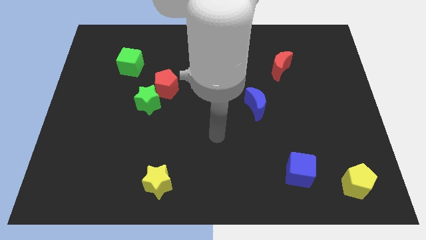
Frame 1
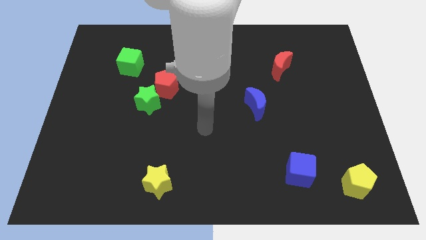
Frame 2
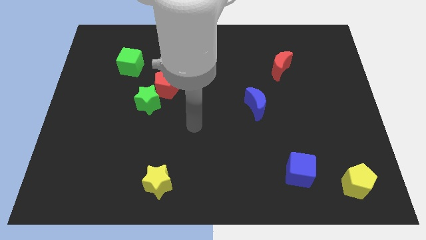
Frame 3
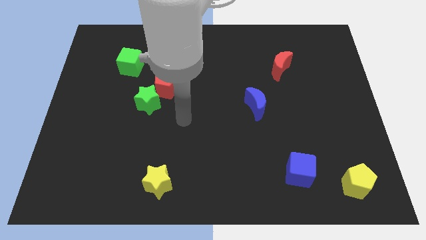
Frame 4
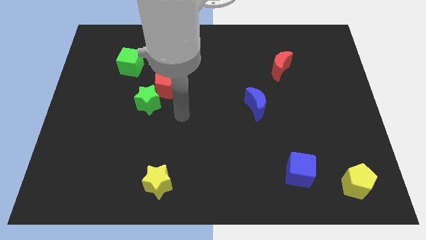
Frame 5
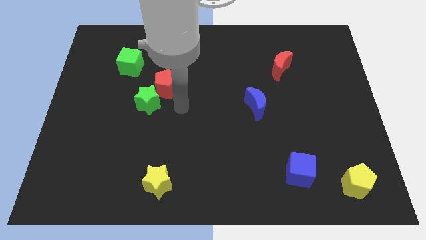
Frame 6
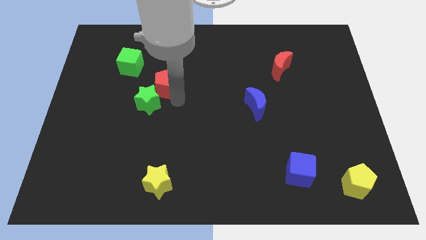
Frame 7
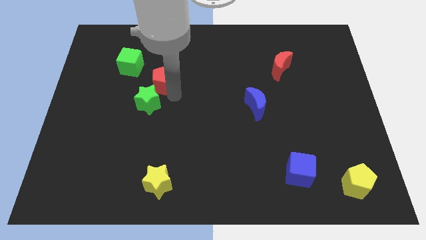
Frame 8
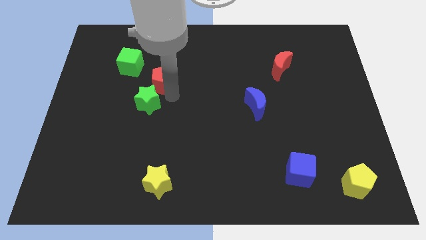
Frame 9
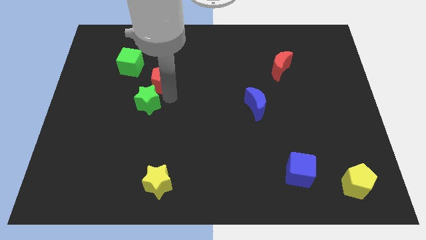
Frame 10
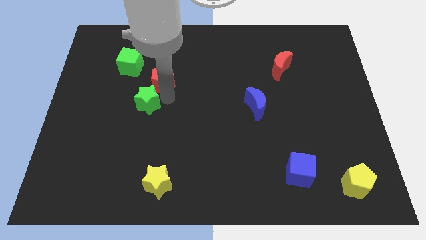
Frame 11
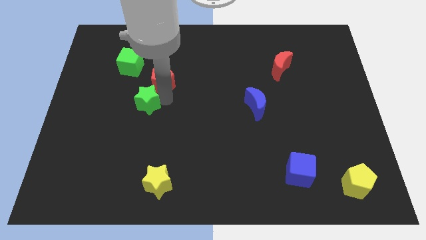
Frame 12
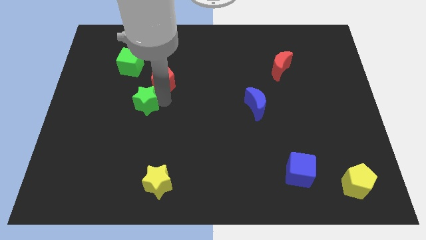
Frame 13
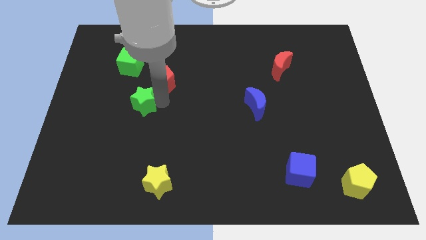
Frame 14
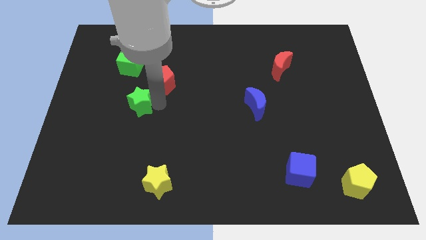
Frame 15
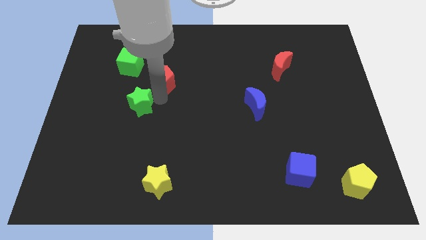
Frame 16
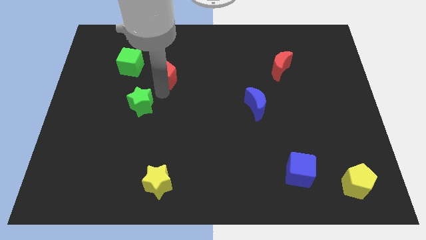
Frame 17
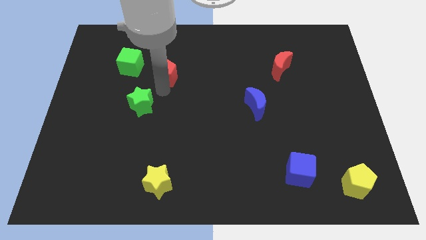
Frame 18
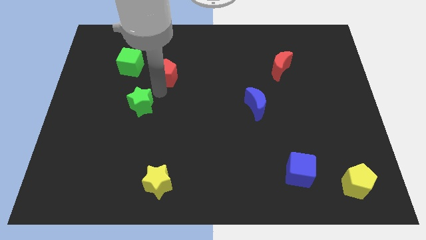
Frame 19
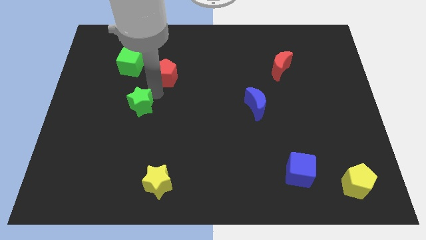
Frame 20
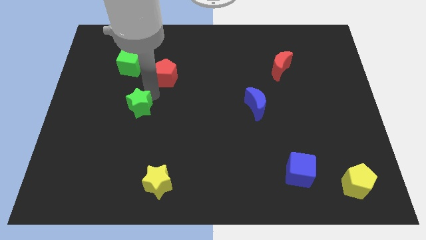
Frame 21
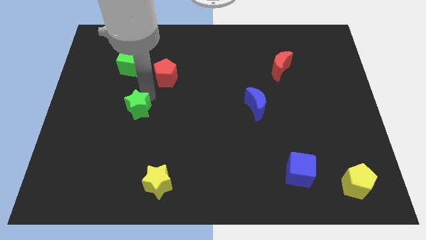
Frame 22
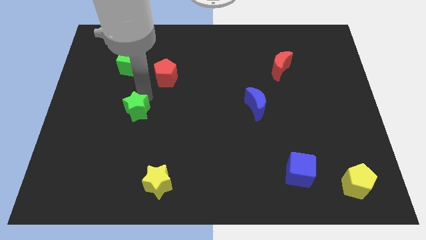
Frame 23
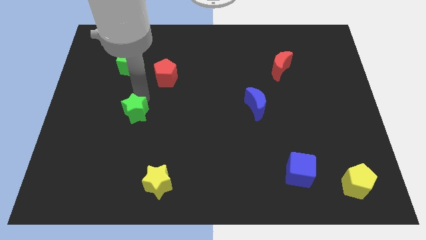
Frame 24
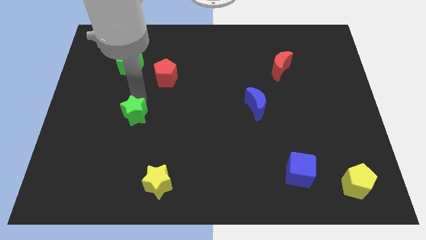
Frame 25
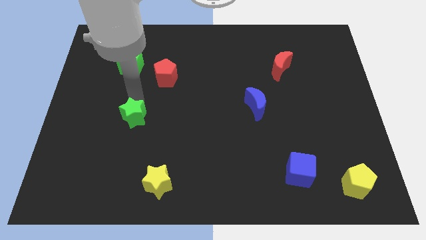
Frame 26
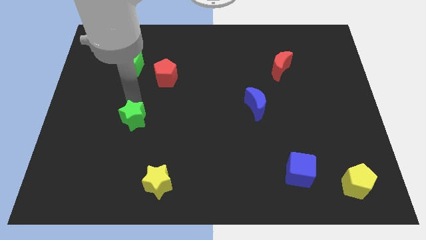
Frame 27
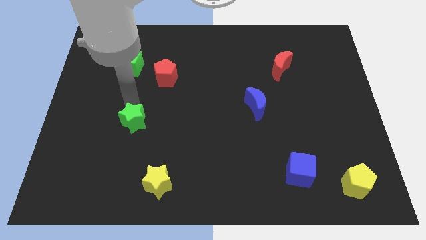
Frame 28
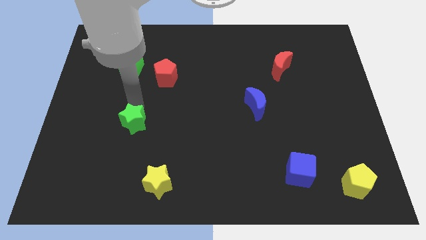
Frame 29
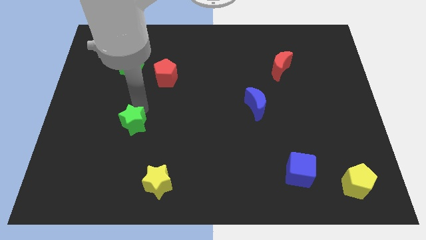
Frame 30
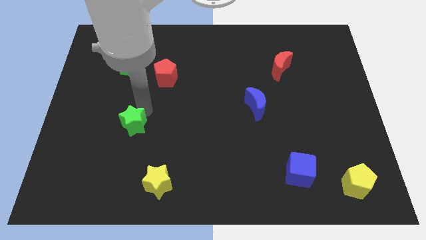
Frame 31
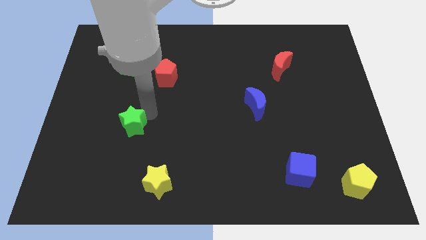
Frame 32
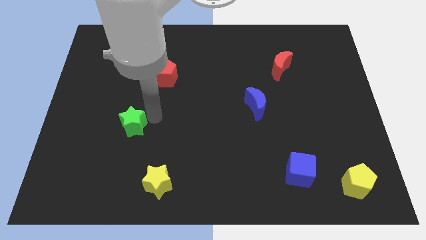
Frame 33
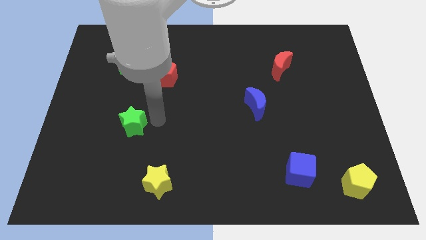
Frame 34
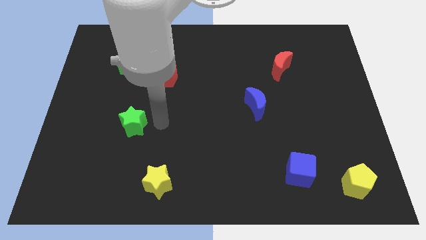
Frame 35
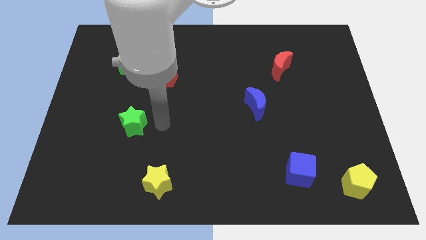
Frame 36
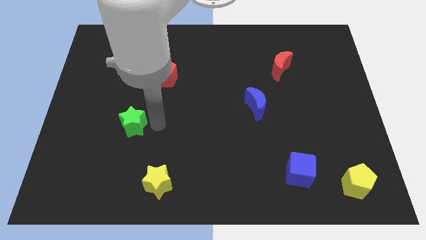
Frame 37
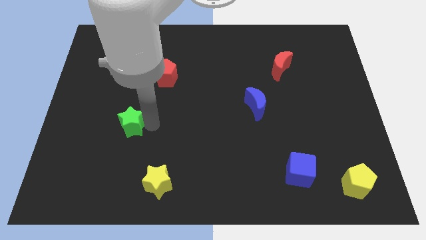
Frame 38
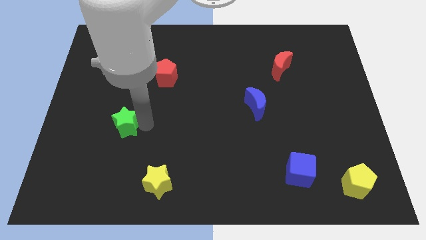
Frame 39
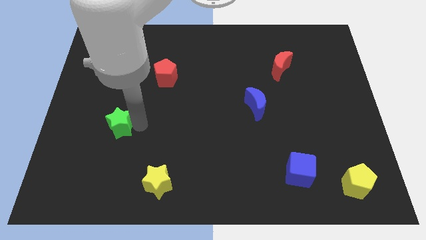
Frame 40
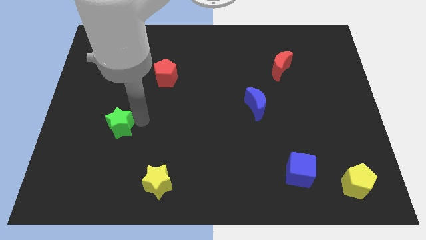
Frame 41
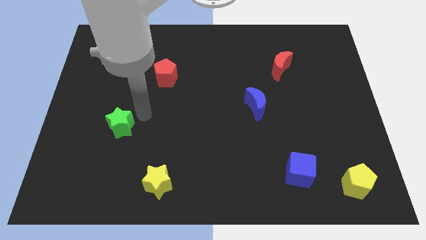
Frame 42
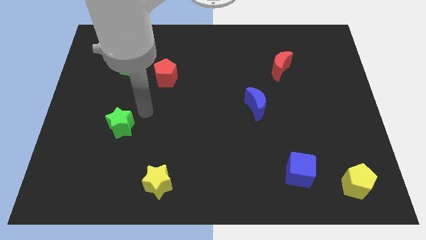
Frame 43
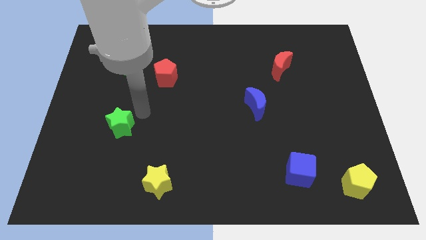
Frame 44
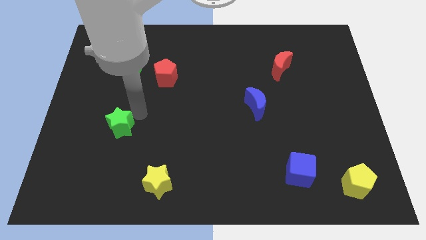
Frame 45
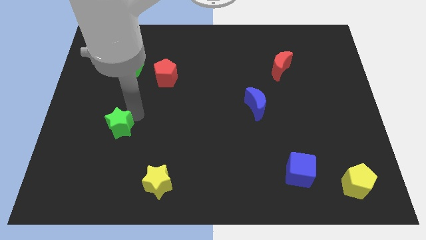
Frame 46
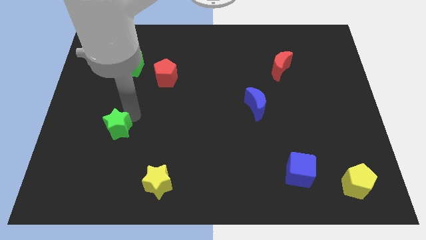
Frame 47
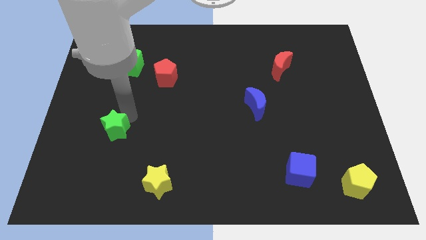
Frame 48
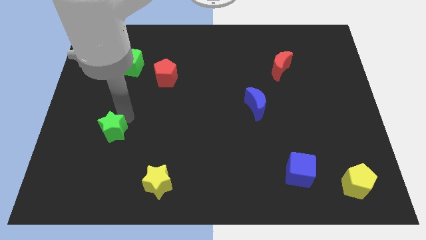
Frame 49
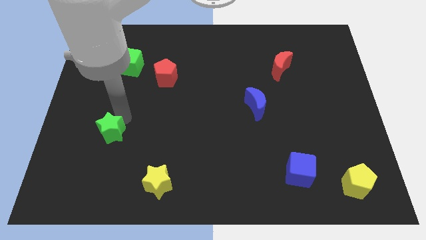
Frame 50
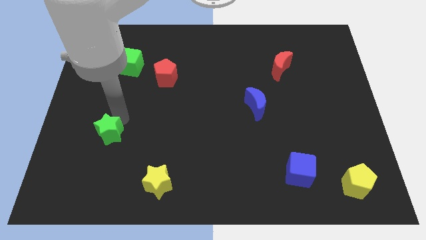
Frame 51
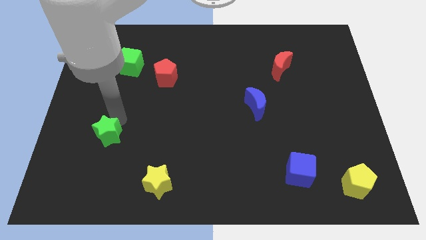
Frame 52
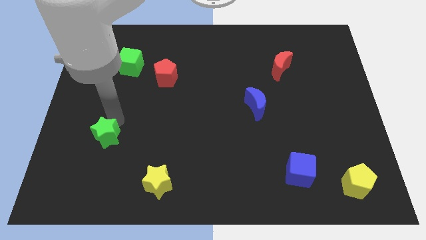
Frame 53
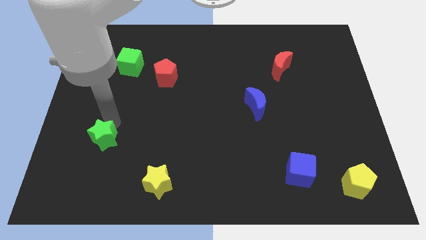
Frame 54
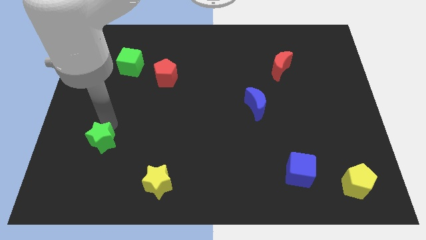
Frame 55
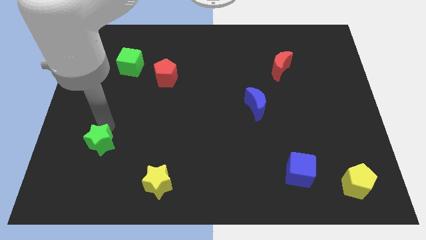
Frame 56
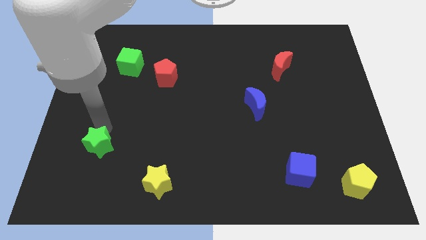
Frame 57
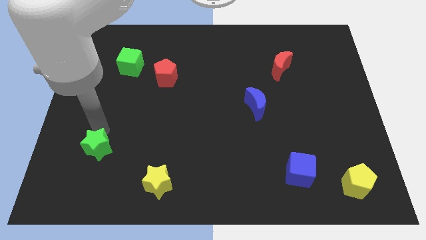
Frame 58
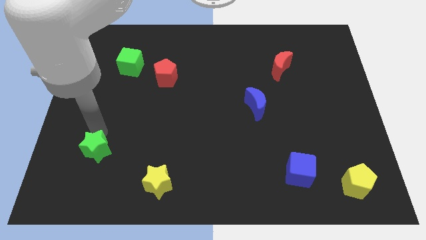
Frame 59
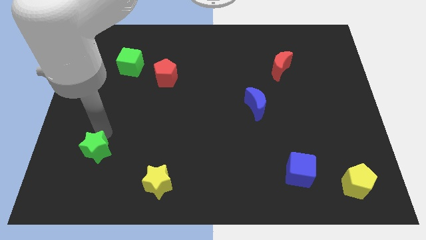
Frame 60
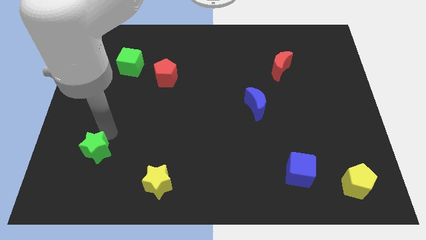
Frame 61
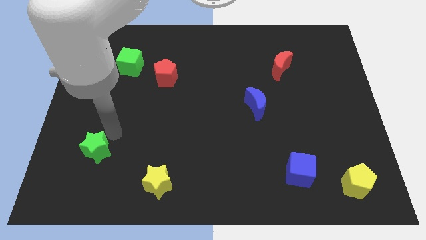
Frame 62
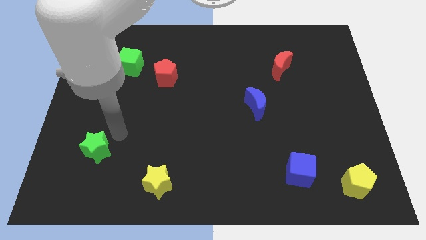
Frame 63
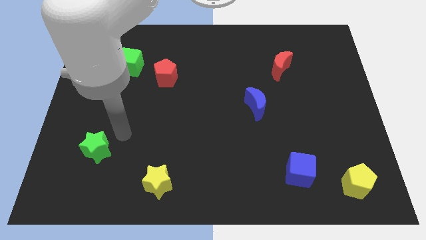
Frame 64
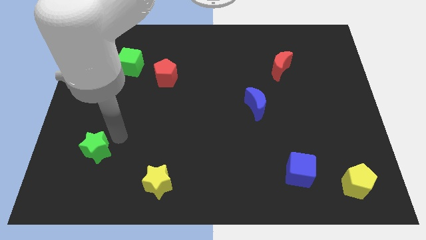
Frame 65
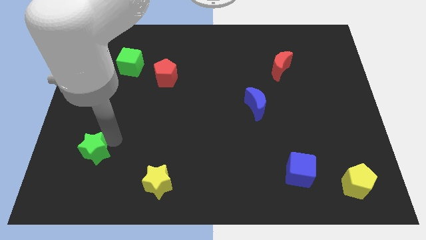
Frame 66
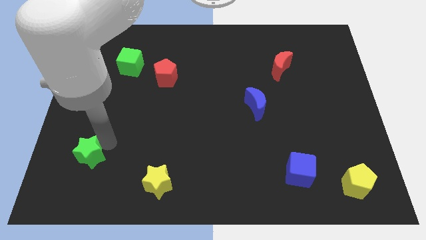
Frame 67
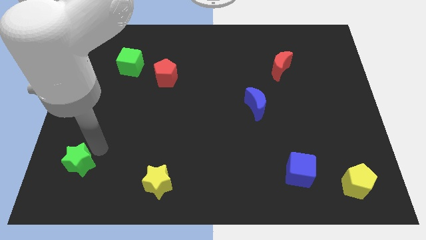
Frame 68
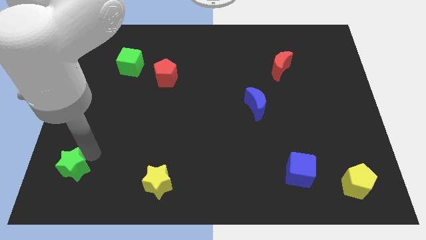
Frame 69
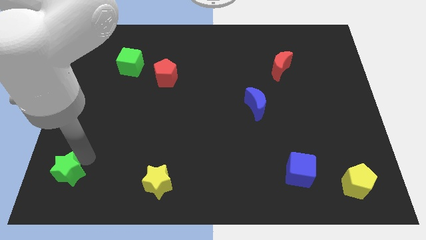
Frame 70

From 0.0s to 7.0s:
move the green star to the bottom left
